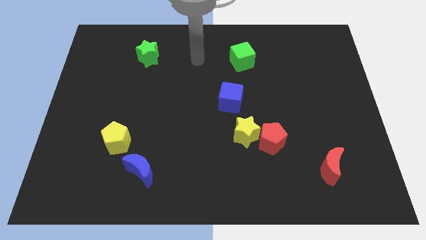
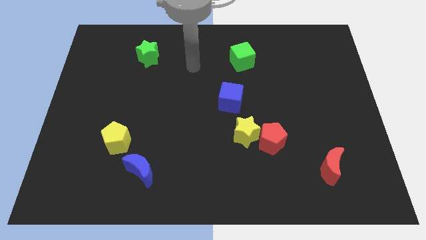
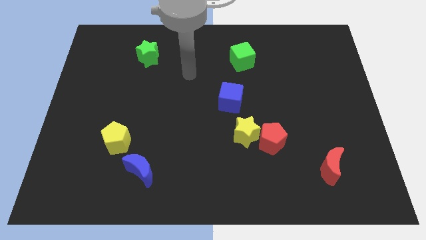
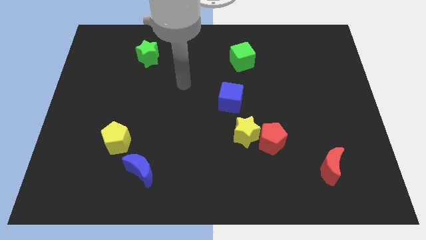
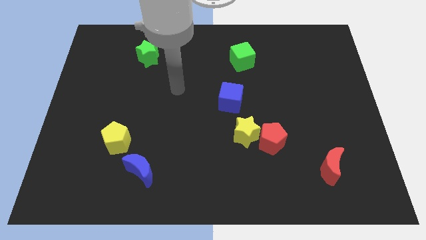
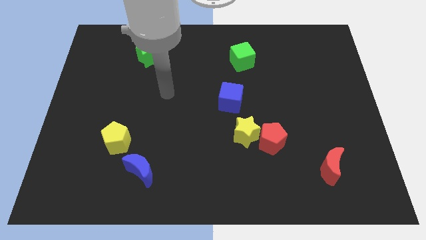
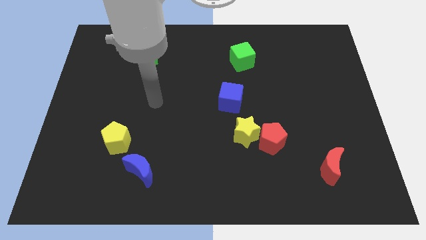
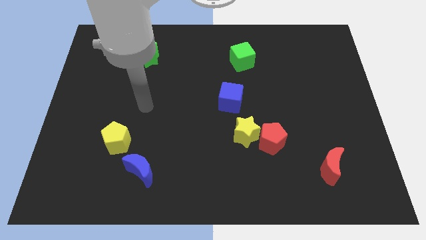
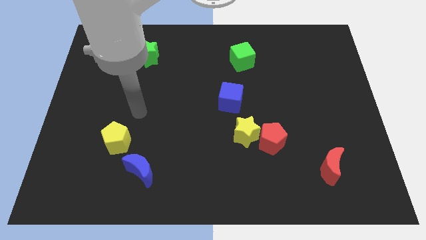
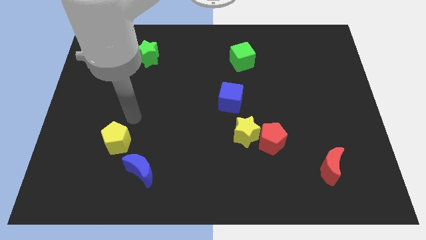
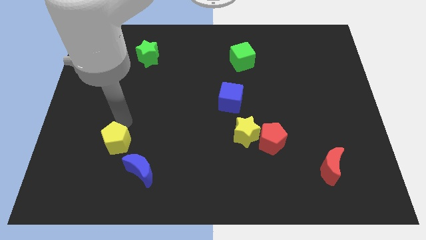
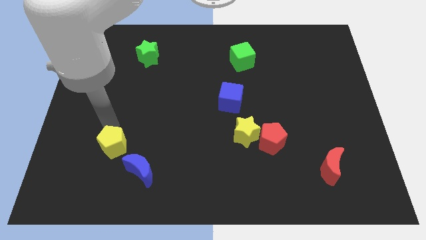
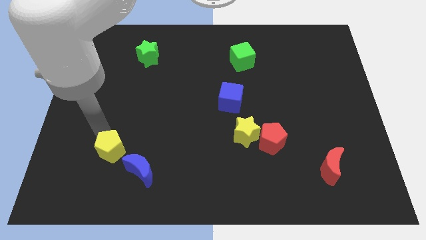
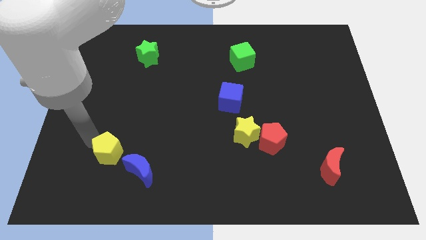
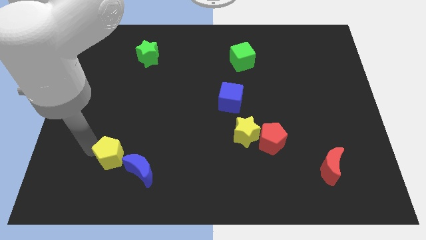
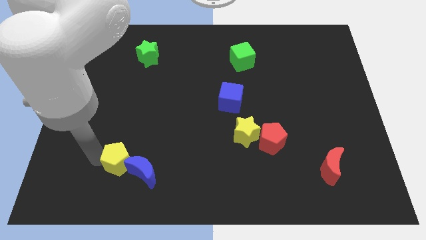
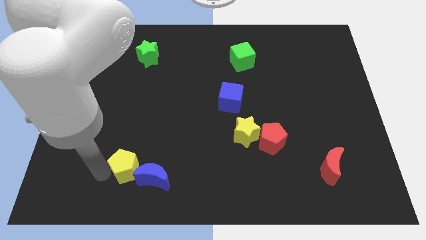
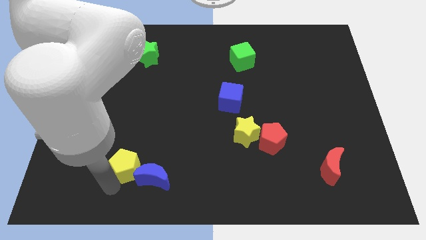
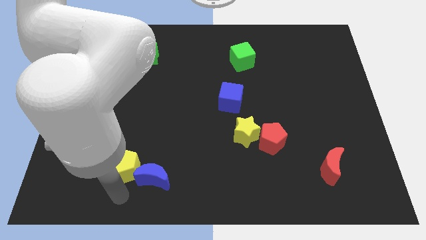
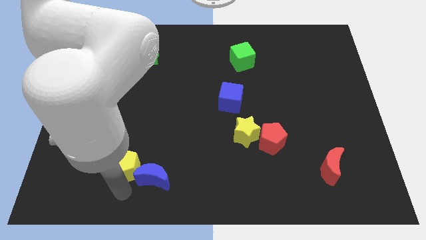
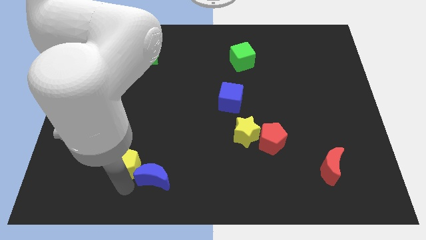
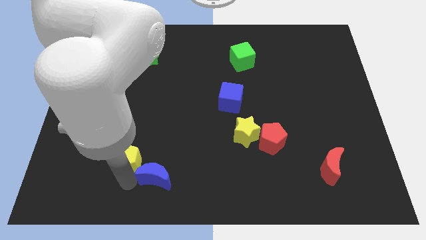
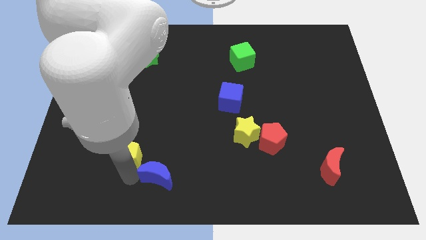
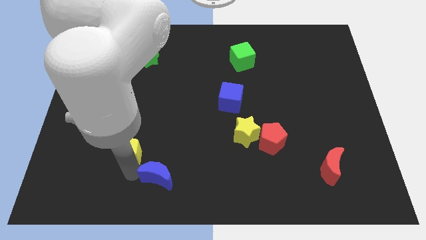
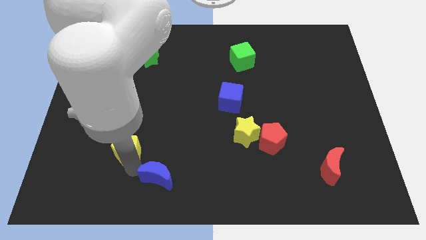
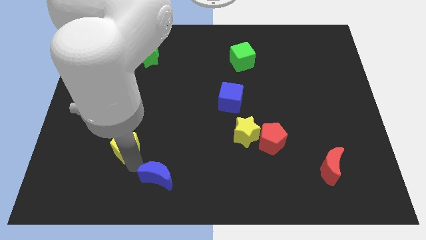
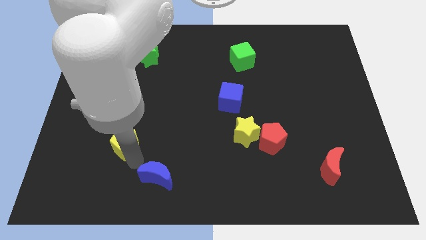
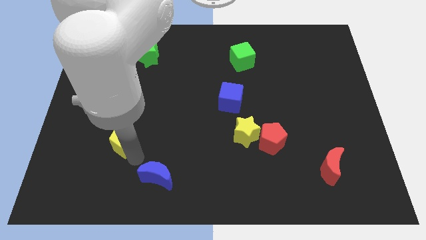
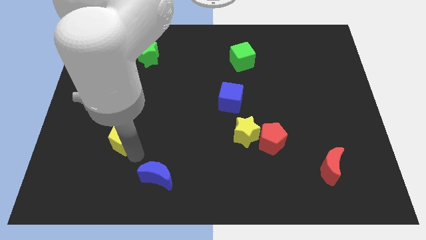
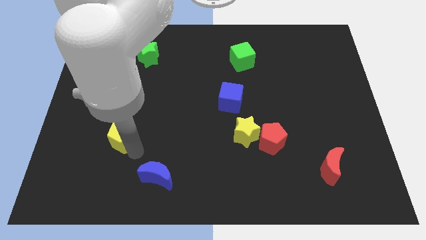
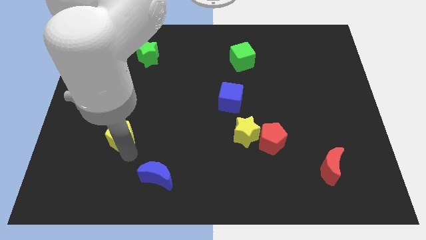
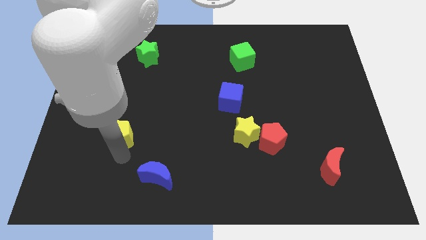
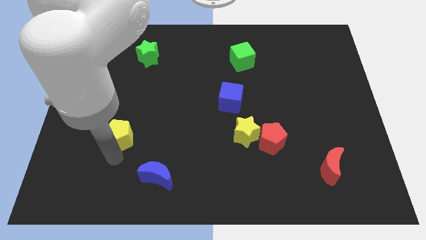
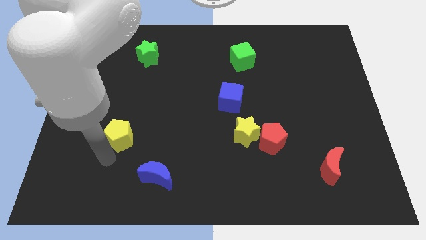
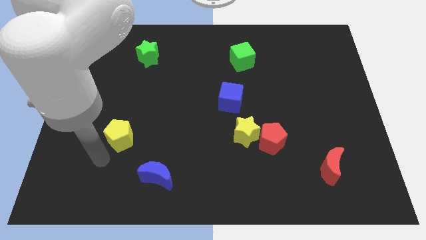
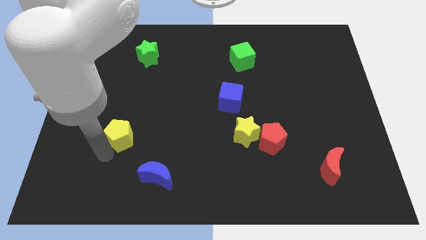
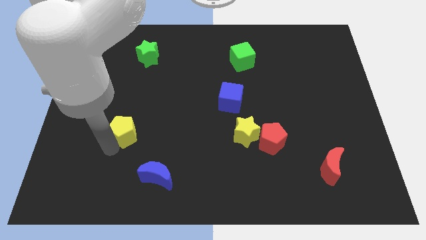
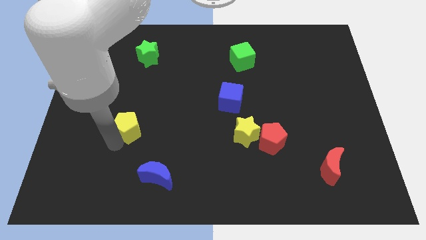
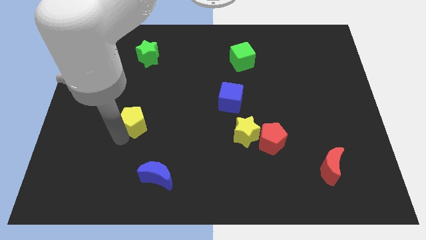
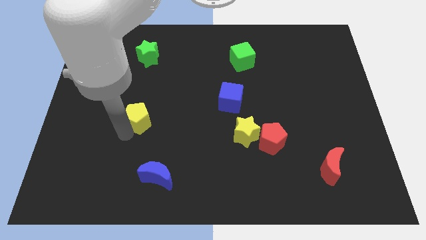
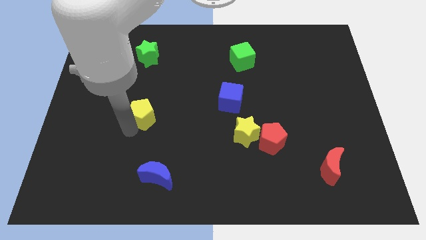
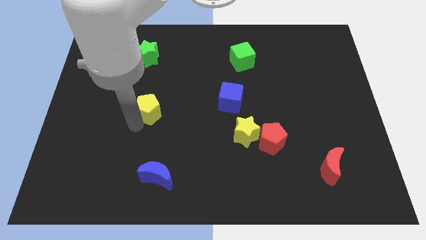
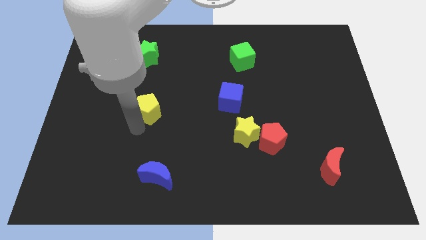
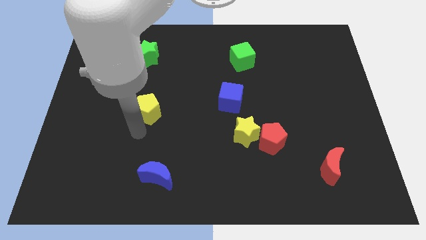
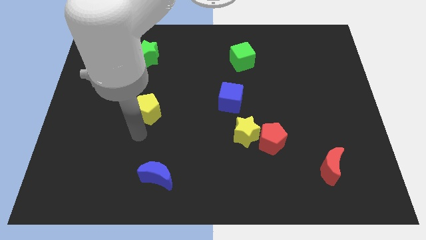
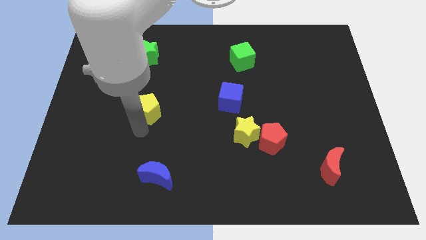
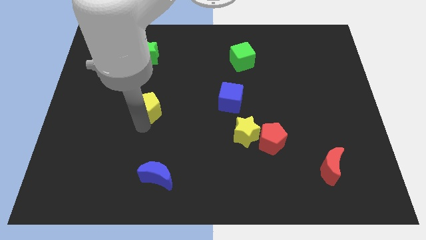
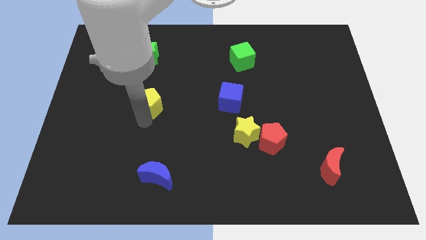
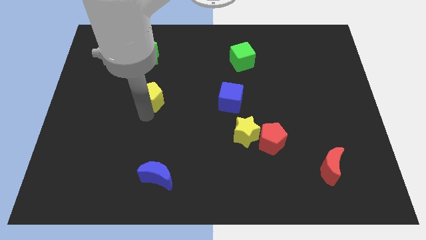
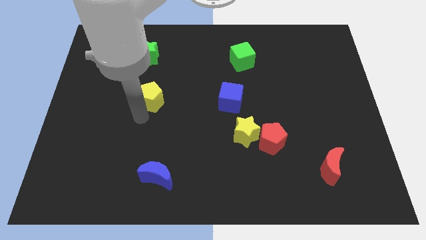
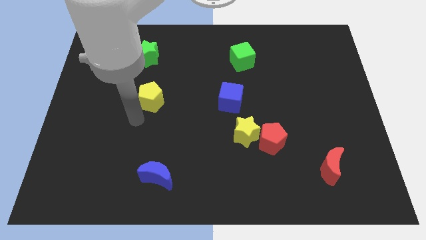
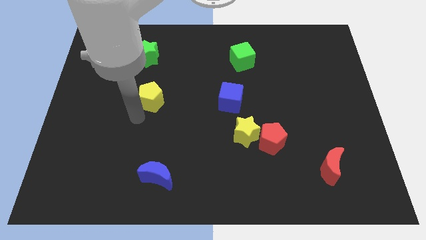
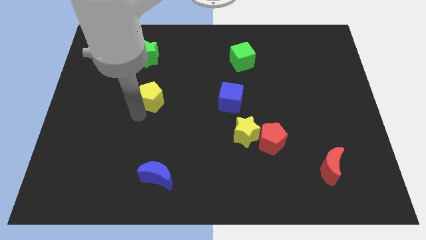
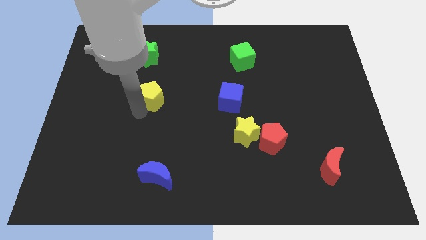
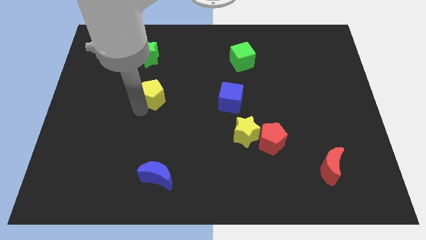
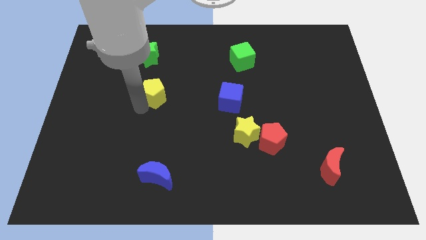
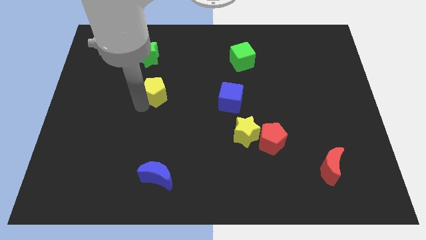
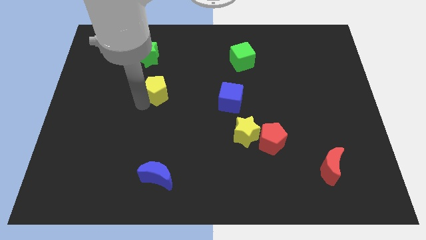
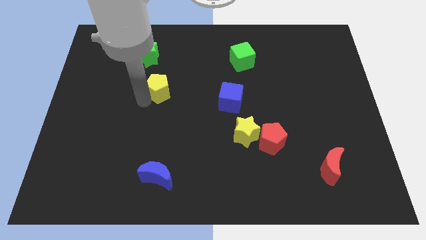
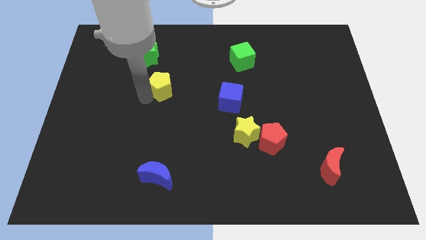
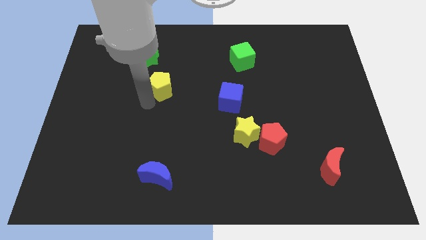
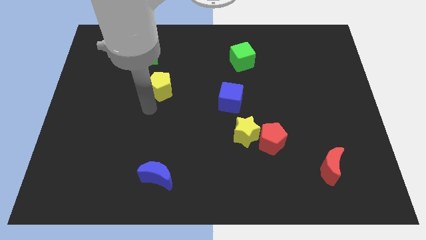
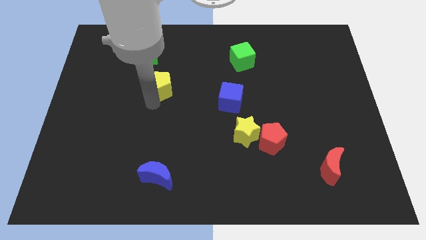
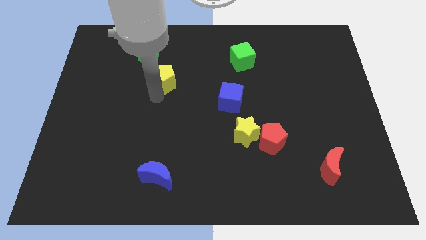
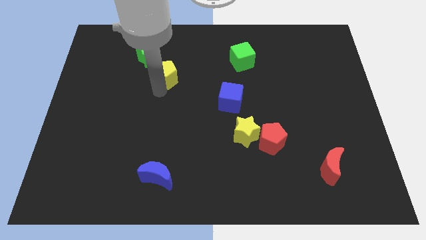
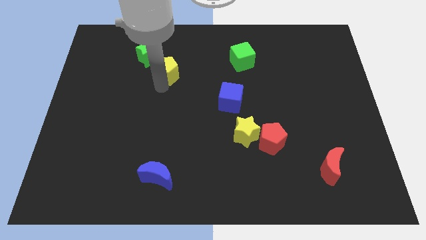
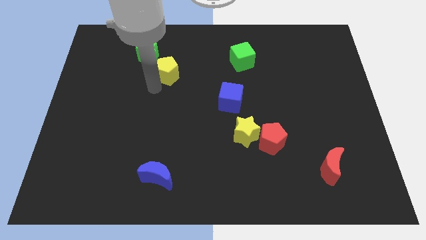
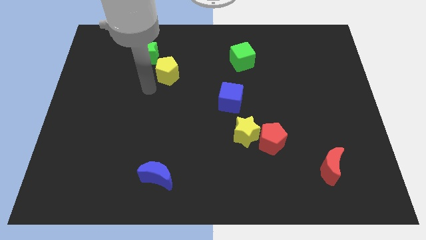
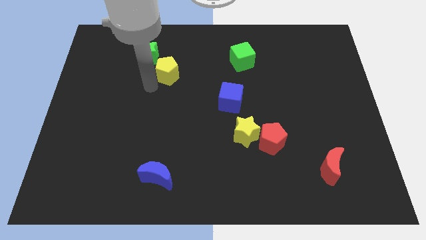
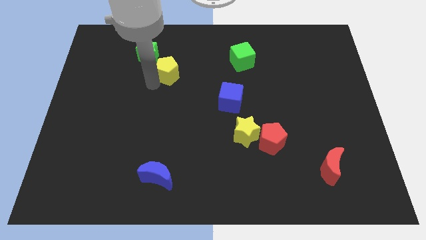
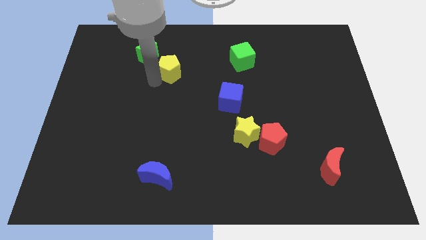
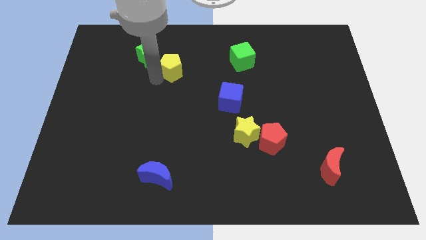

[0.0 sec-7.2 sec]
slide the yellow pentagon to the right side of the green star
